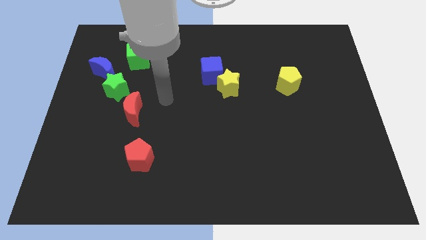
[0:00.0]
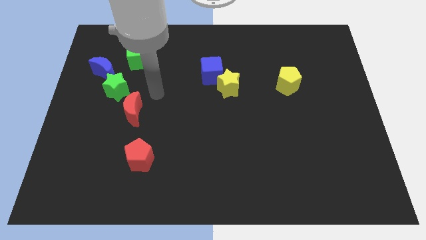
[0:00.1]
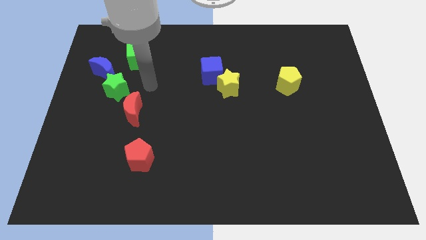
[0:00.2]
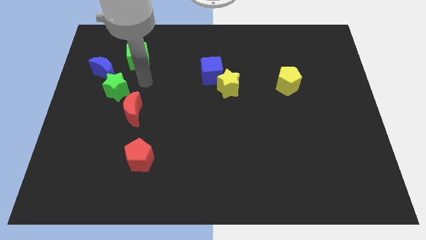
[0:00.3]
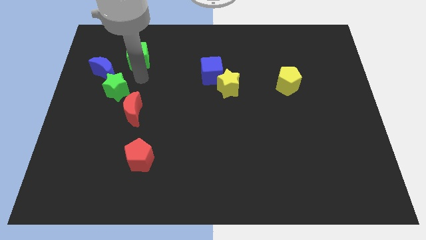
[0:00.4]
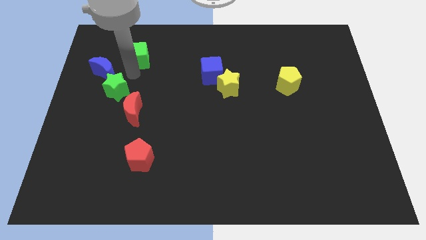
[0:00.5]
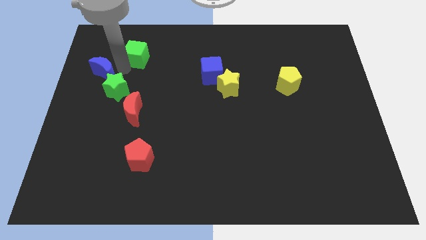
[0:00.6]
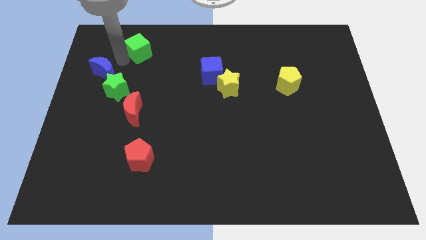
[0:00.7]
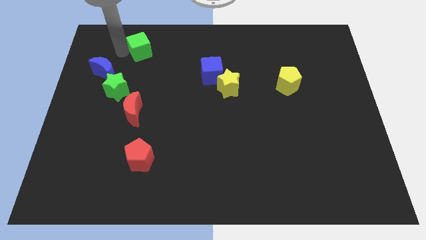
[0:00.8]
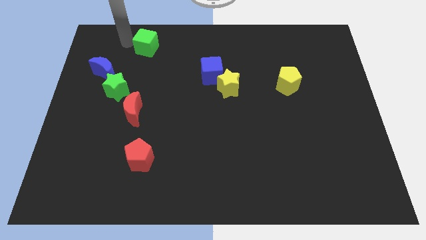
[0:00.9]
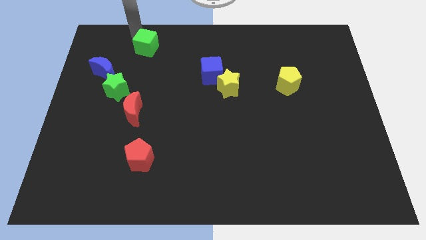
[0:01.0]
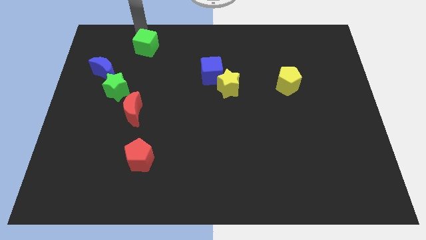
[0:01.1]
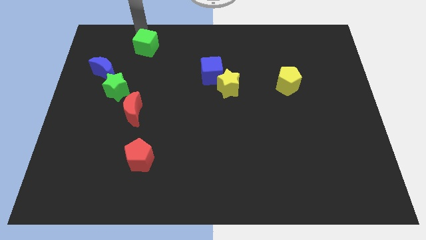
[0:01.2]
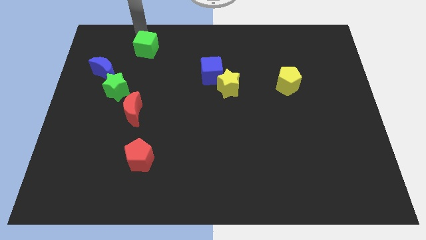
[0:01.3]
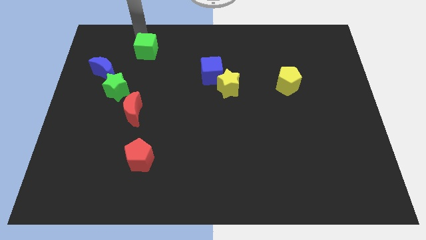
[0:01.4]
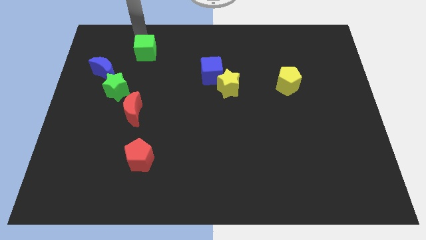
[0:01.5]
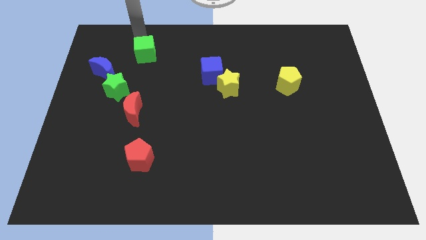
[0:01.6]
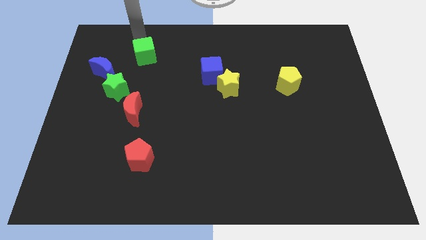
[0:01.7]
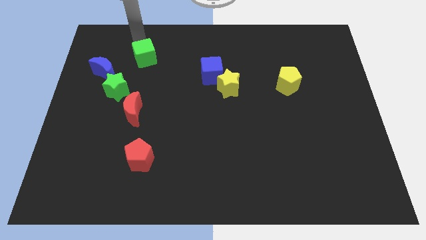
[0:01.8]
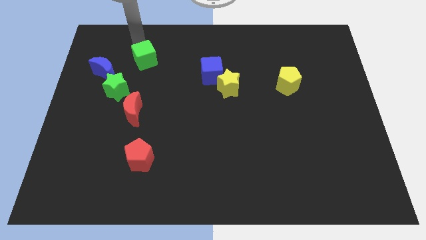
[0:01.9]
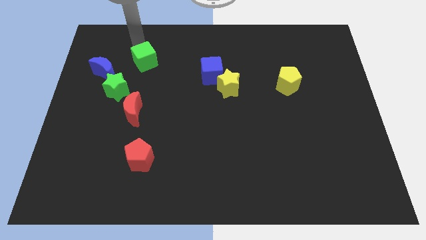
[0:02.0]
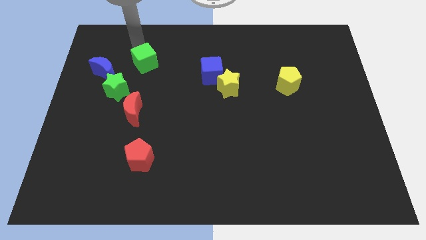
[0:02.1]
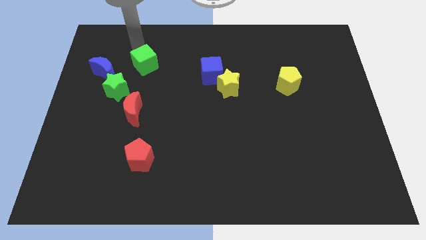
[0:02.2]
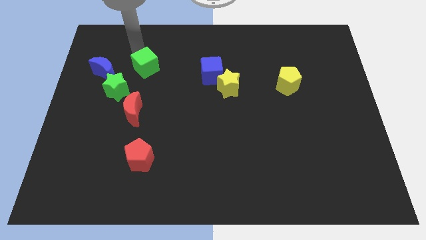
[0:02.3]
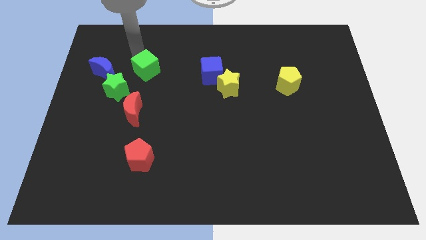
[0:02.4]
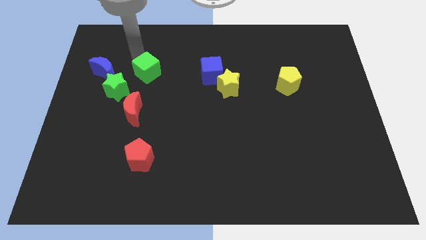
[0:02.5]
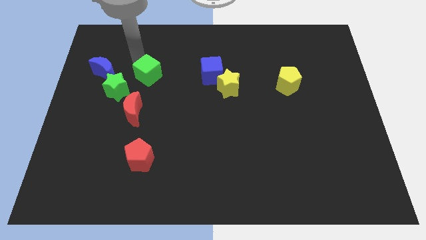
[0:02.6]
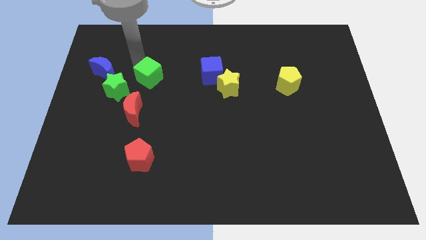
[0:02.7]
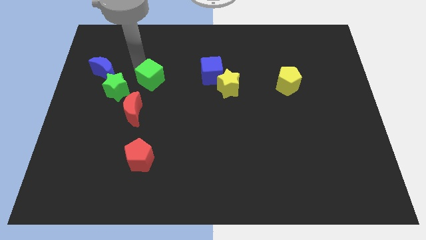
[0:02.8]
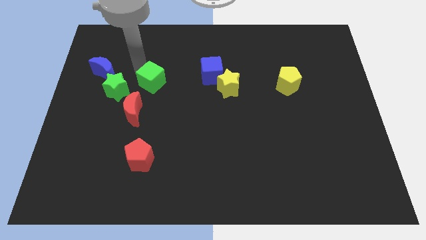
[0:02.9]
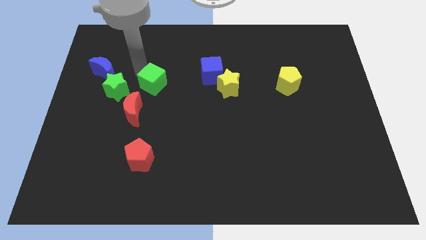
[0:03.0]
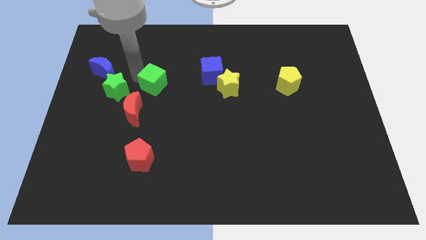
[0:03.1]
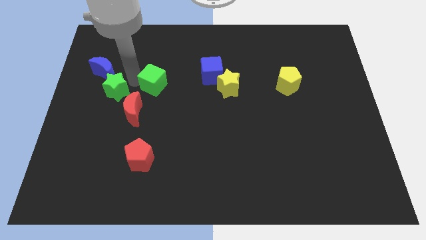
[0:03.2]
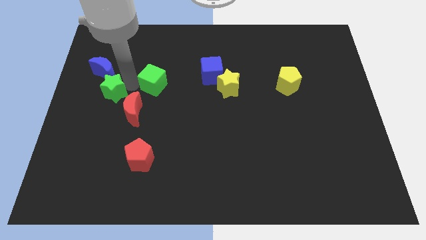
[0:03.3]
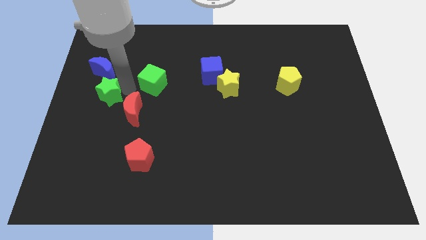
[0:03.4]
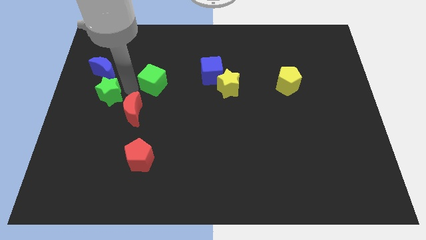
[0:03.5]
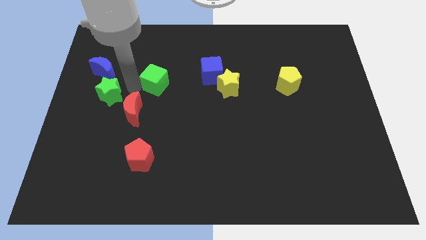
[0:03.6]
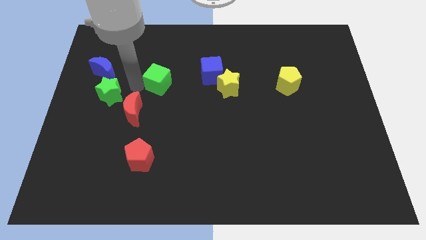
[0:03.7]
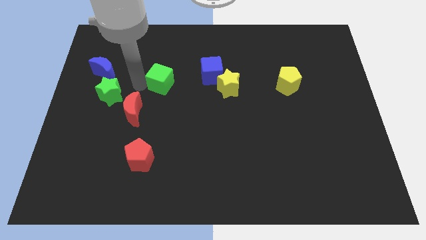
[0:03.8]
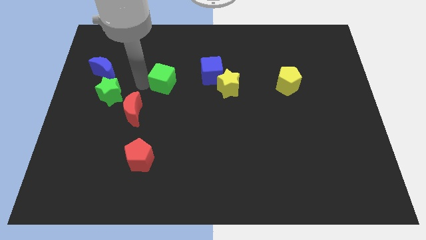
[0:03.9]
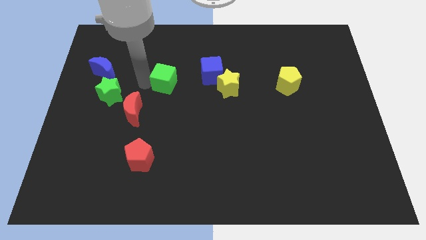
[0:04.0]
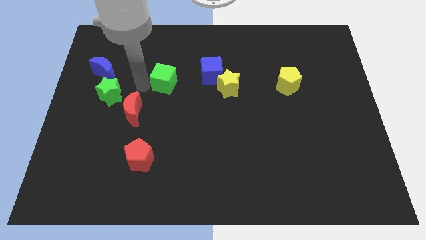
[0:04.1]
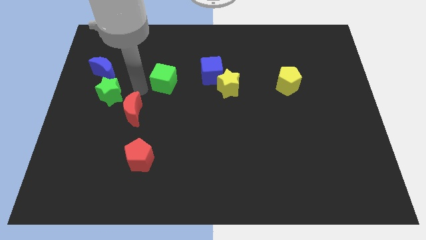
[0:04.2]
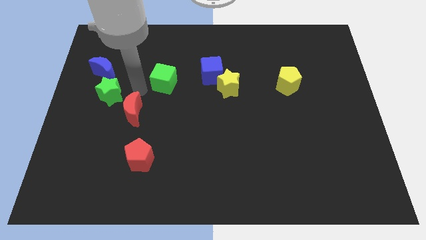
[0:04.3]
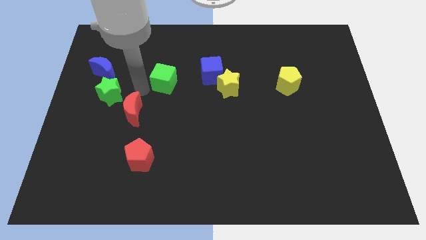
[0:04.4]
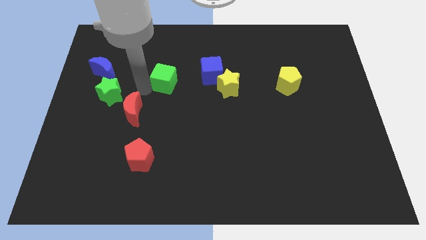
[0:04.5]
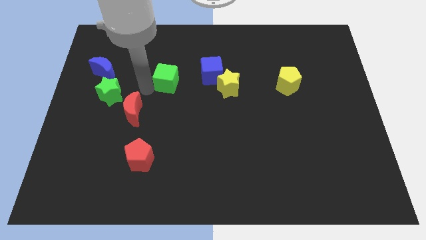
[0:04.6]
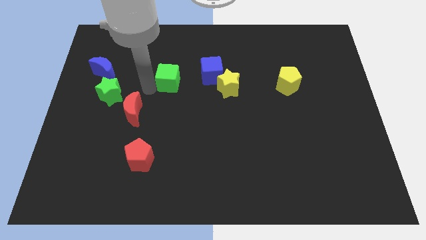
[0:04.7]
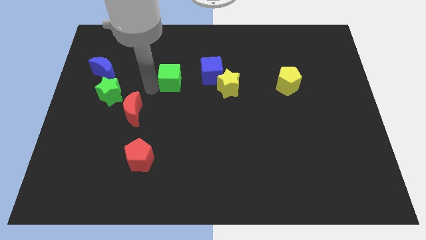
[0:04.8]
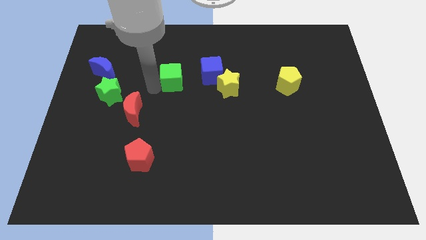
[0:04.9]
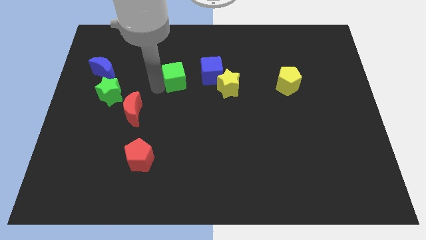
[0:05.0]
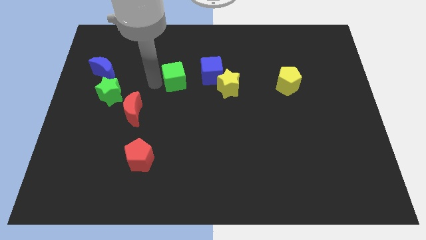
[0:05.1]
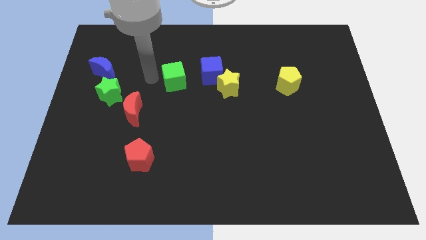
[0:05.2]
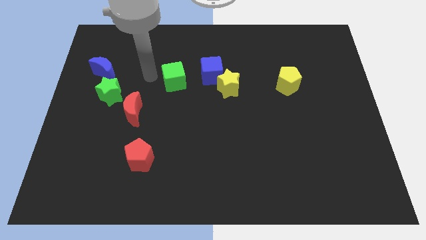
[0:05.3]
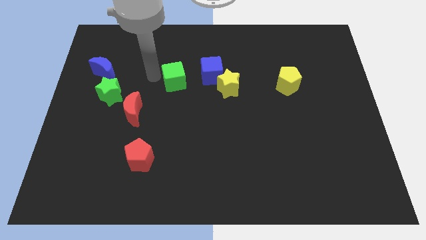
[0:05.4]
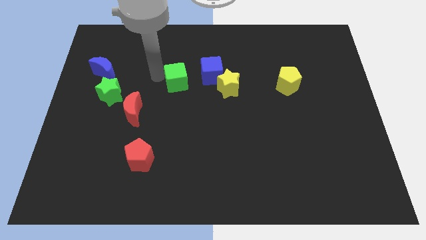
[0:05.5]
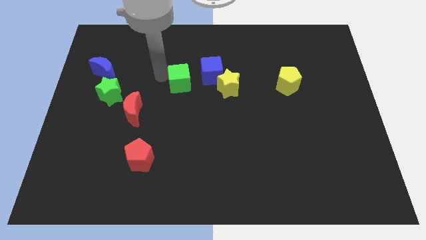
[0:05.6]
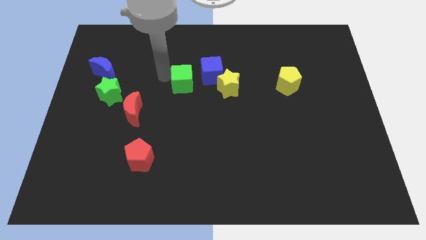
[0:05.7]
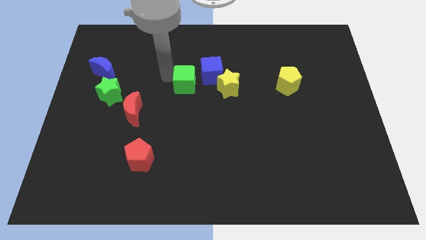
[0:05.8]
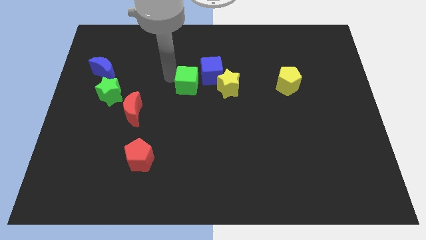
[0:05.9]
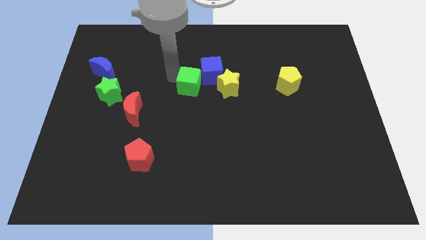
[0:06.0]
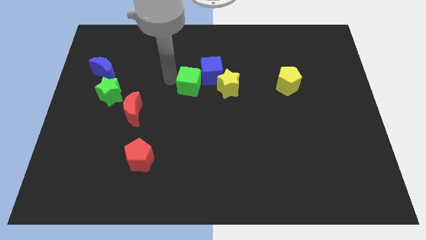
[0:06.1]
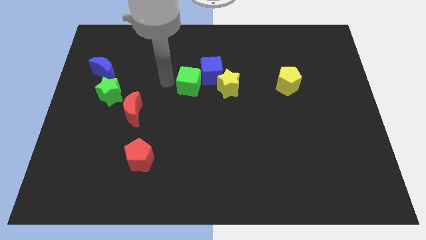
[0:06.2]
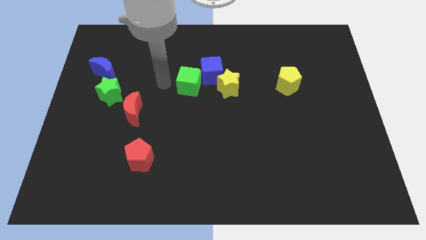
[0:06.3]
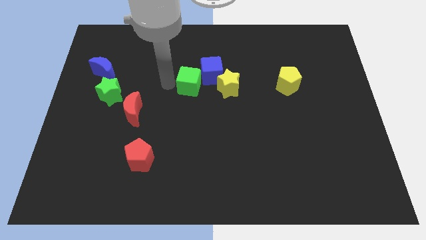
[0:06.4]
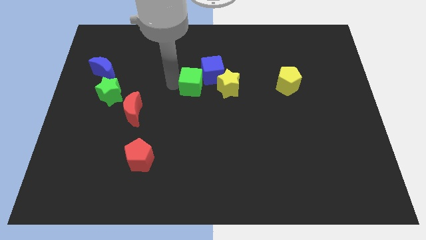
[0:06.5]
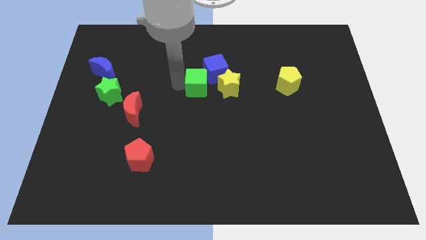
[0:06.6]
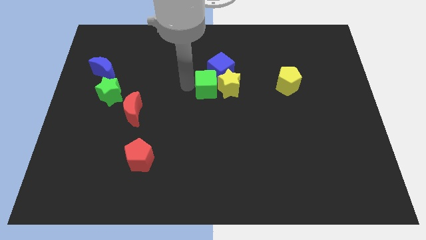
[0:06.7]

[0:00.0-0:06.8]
push the green cube towards the yellow star
